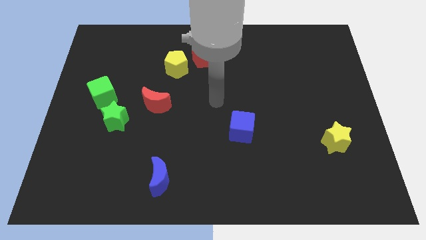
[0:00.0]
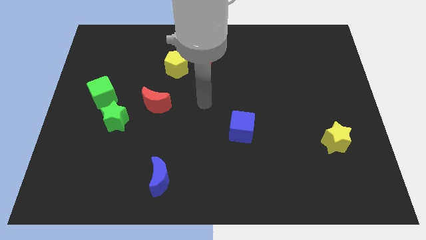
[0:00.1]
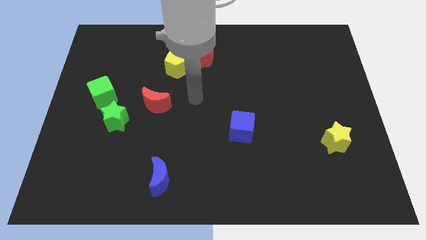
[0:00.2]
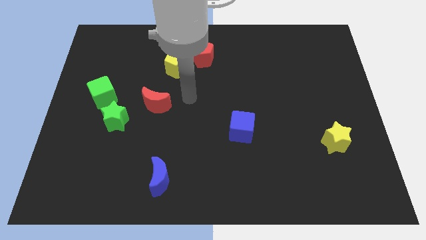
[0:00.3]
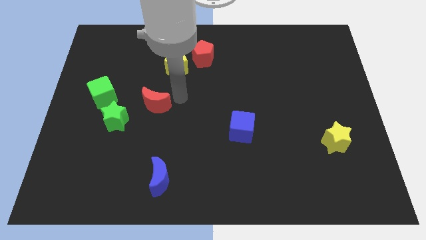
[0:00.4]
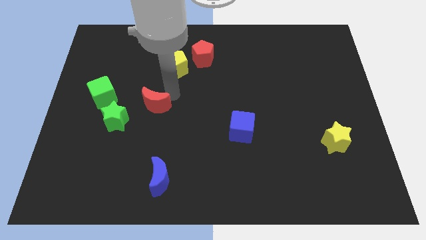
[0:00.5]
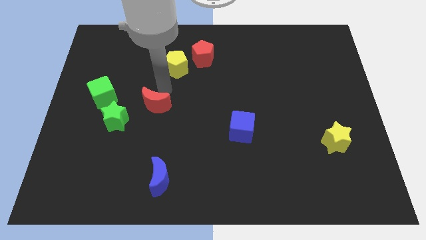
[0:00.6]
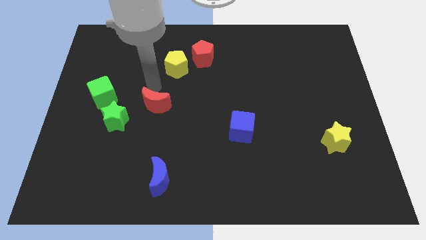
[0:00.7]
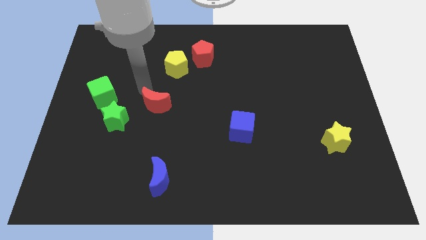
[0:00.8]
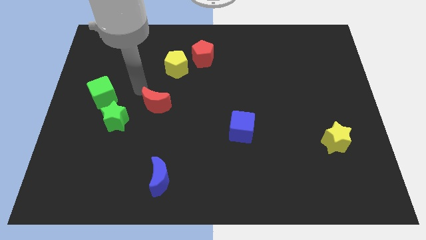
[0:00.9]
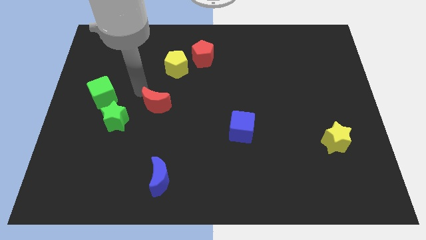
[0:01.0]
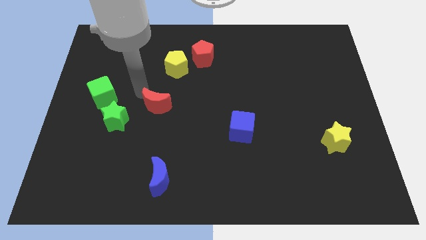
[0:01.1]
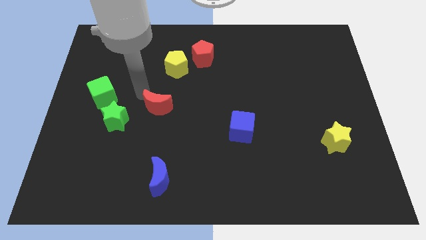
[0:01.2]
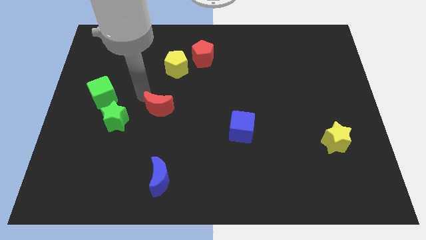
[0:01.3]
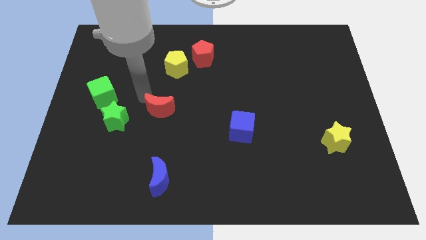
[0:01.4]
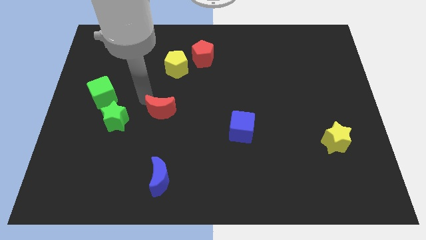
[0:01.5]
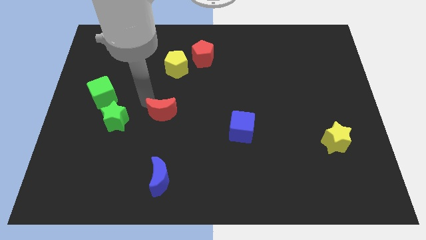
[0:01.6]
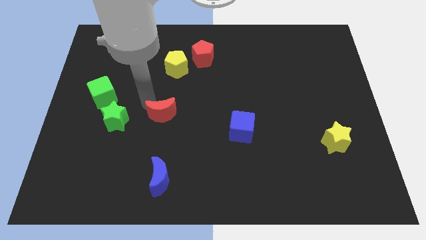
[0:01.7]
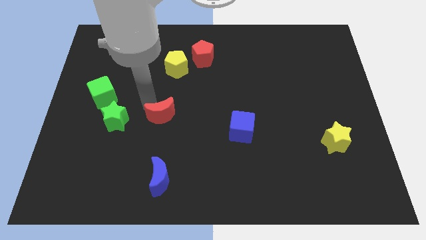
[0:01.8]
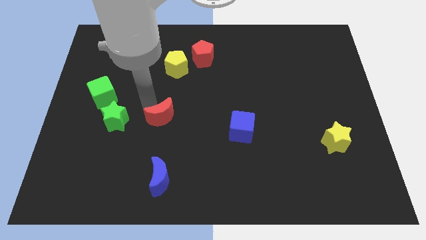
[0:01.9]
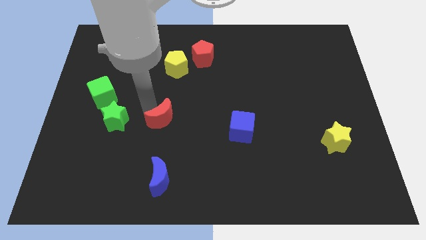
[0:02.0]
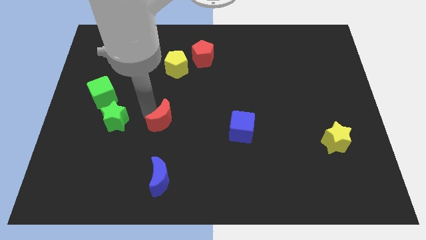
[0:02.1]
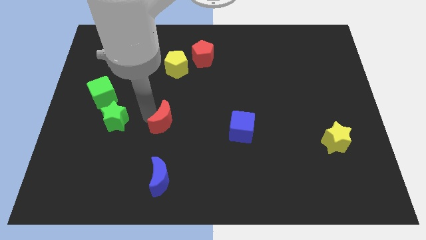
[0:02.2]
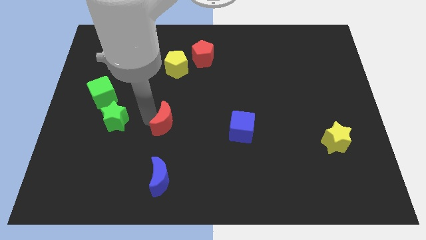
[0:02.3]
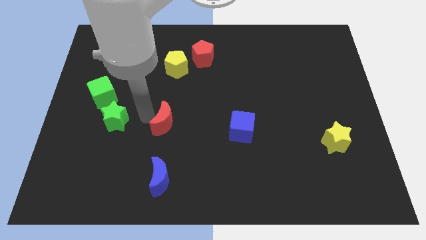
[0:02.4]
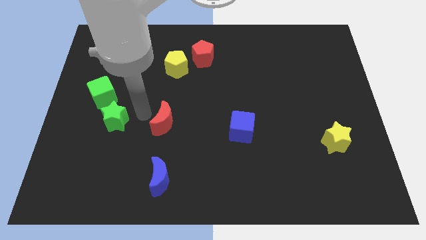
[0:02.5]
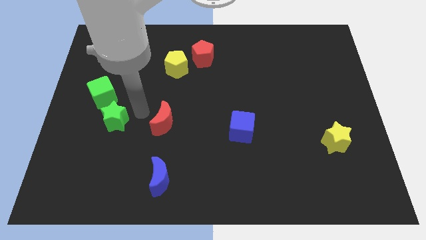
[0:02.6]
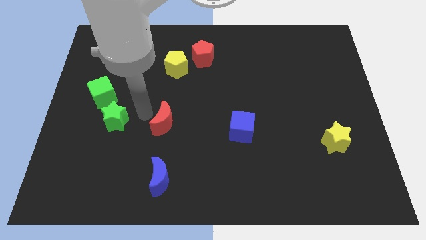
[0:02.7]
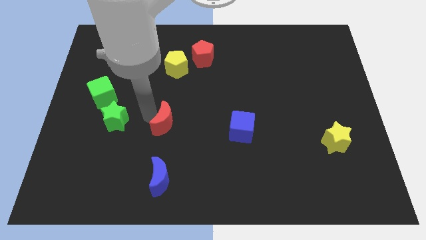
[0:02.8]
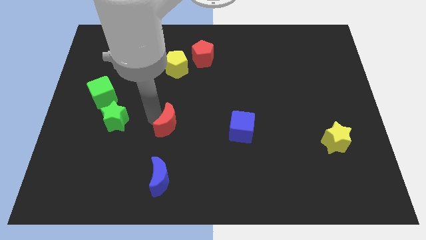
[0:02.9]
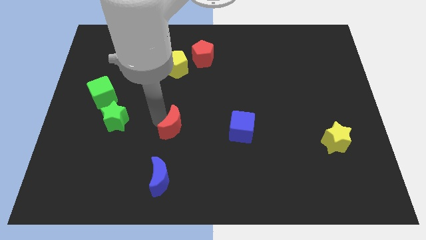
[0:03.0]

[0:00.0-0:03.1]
slightly move the red moon down and to the right

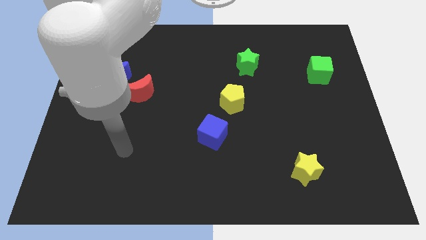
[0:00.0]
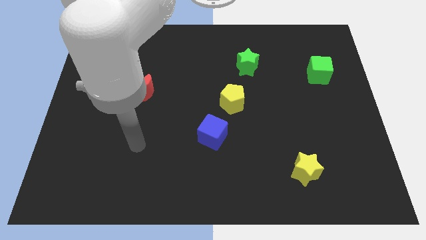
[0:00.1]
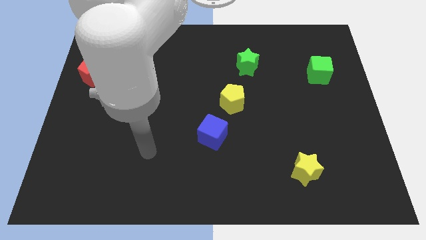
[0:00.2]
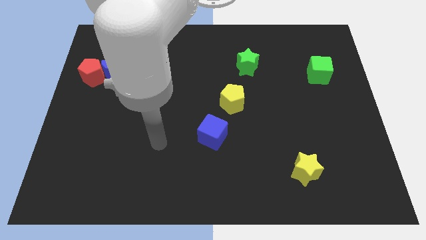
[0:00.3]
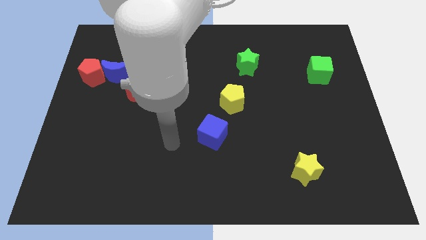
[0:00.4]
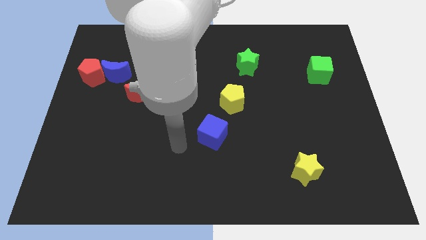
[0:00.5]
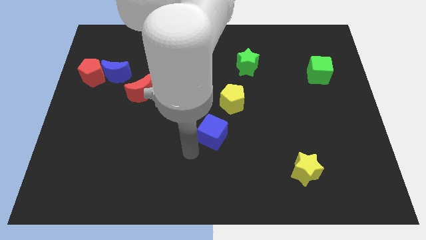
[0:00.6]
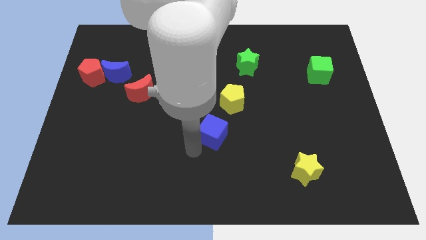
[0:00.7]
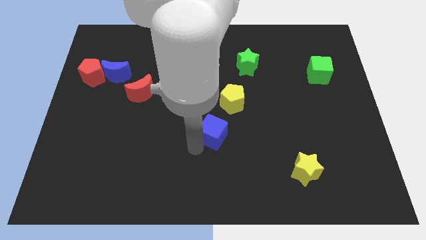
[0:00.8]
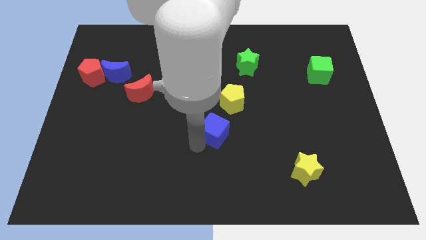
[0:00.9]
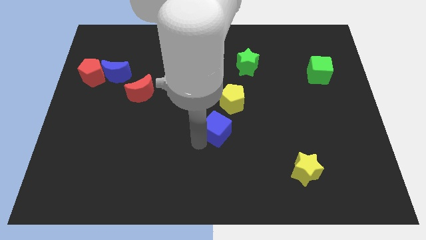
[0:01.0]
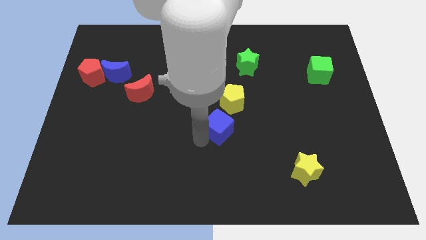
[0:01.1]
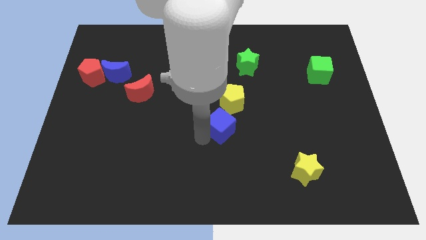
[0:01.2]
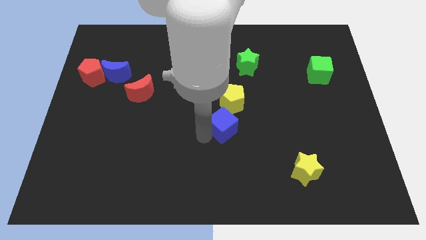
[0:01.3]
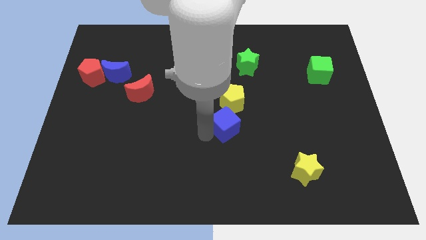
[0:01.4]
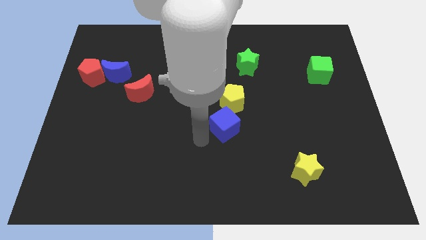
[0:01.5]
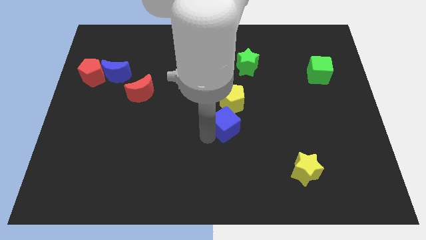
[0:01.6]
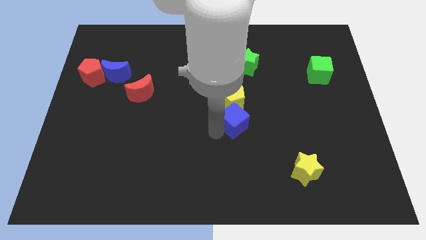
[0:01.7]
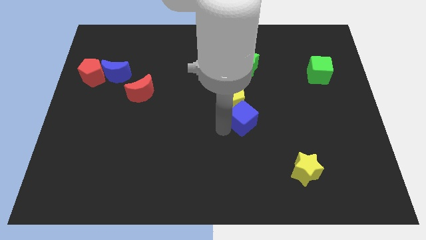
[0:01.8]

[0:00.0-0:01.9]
move the blue cube slightly upwards and to the right

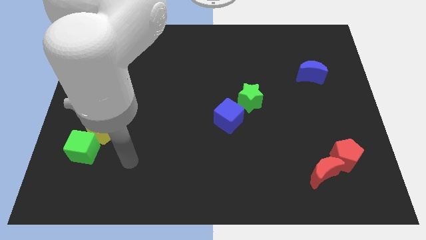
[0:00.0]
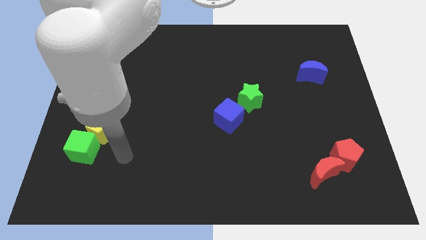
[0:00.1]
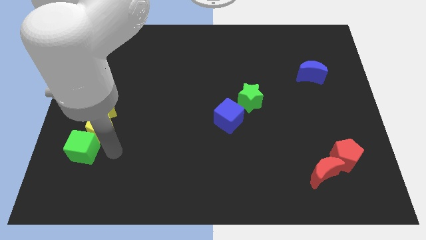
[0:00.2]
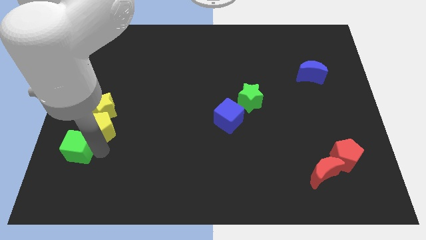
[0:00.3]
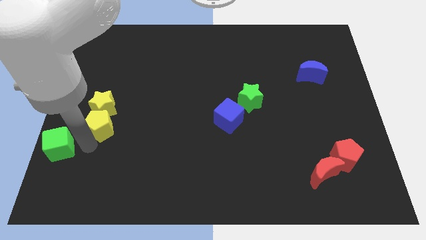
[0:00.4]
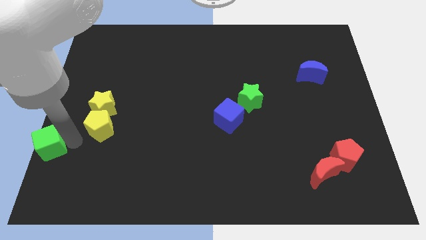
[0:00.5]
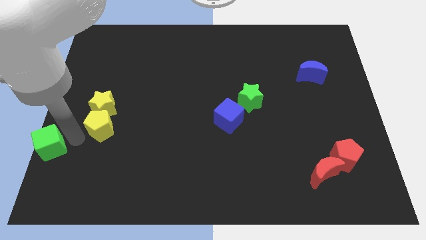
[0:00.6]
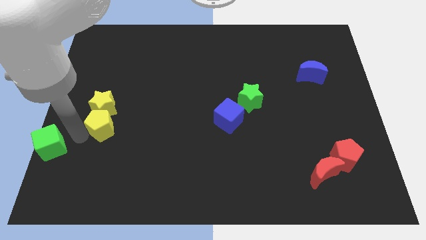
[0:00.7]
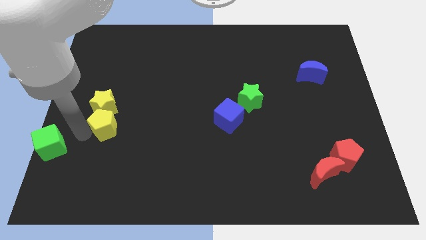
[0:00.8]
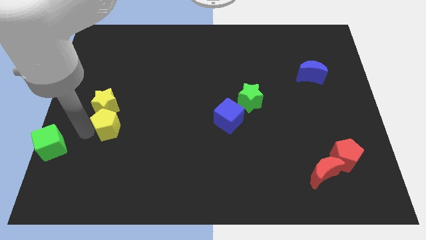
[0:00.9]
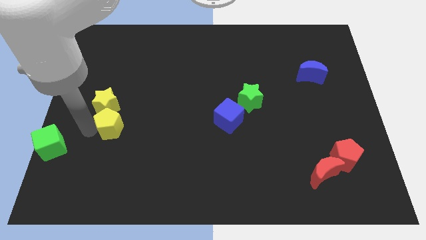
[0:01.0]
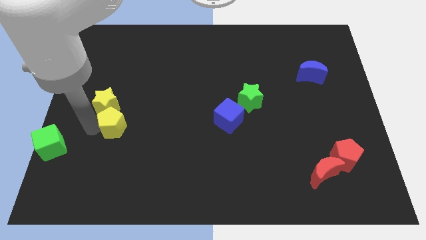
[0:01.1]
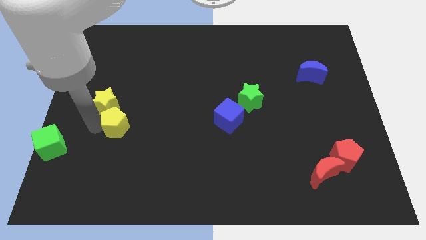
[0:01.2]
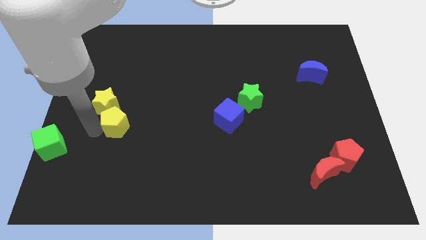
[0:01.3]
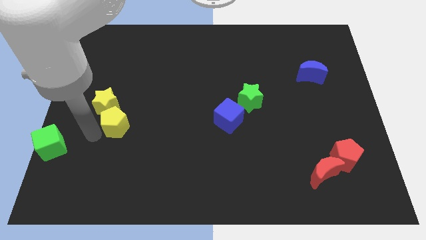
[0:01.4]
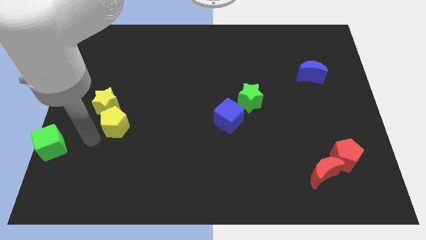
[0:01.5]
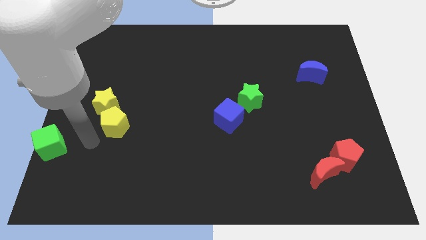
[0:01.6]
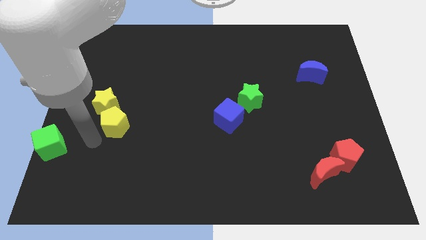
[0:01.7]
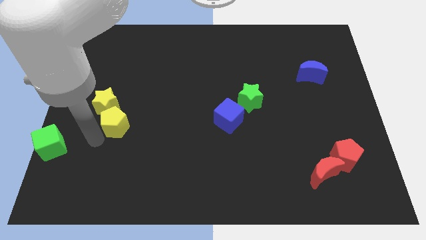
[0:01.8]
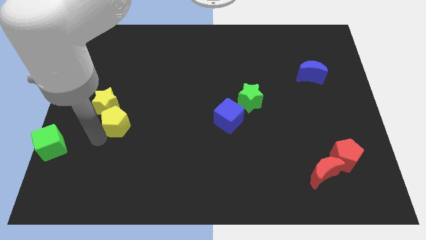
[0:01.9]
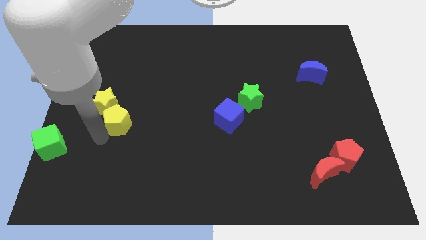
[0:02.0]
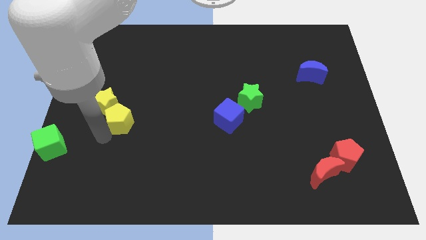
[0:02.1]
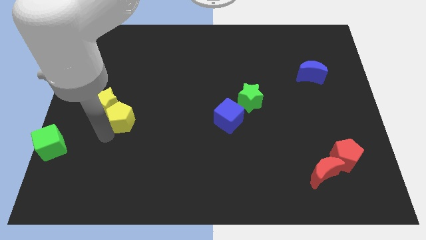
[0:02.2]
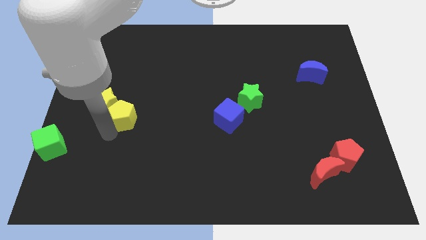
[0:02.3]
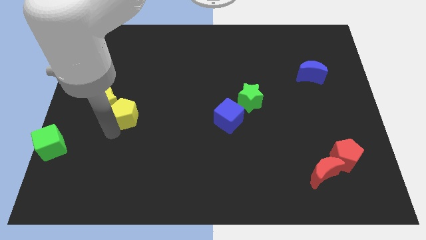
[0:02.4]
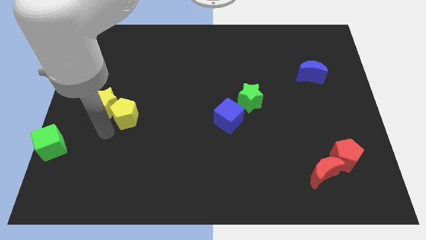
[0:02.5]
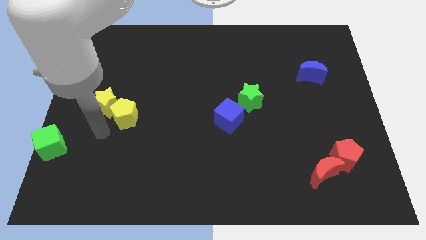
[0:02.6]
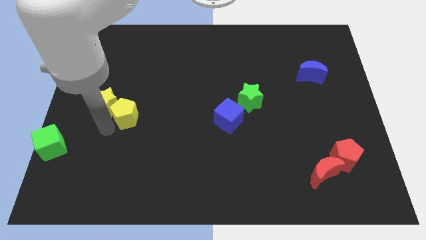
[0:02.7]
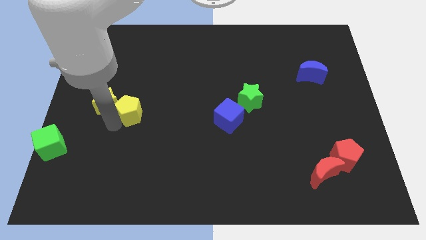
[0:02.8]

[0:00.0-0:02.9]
slightly move the yellow pentagon upwards and right
